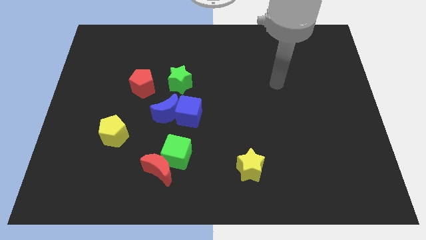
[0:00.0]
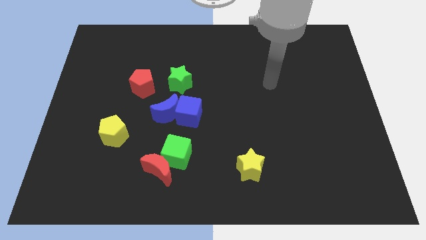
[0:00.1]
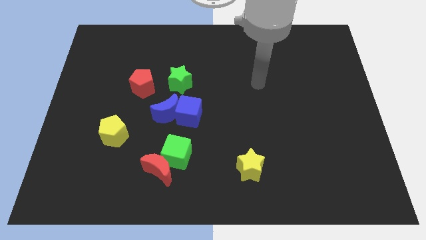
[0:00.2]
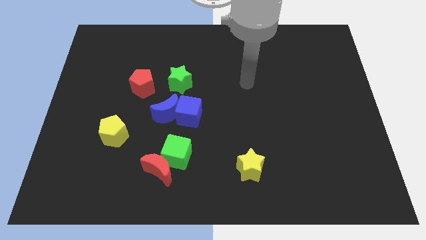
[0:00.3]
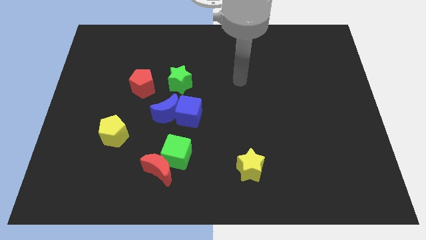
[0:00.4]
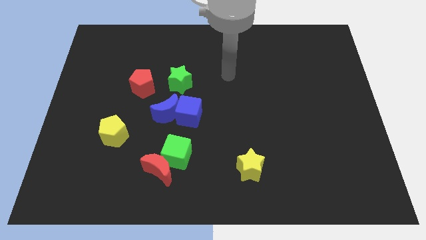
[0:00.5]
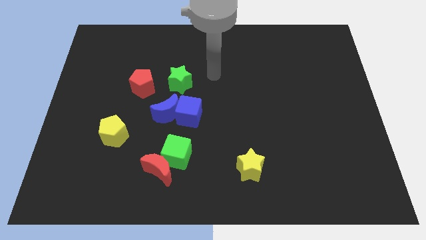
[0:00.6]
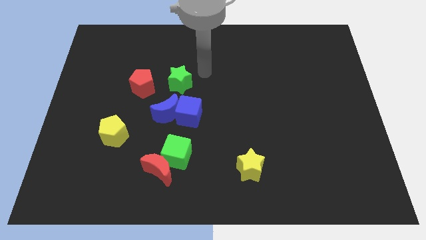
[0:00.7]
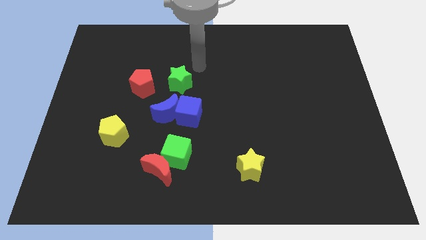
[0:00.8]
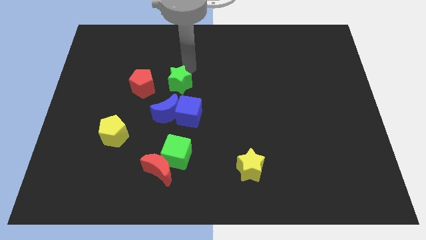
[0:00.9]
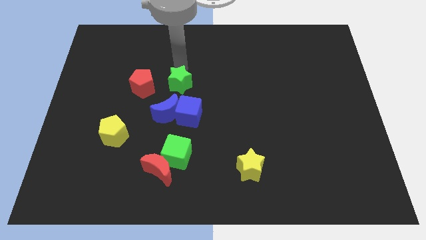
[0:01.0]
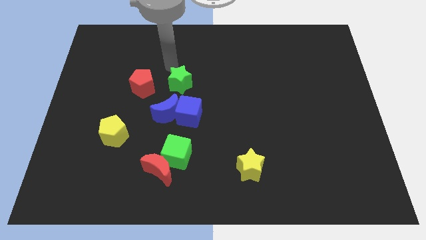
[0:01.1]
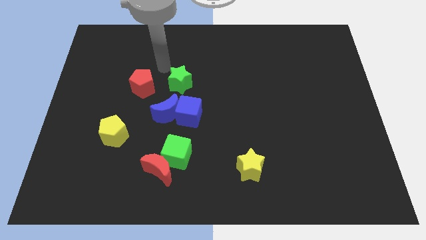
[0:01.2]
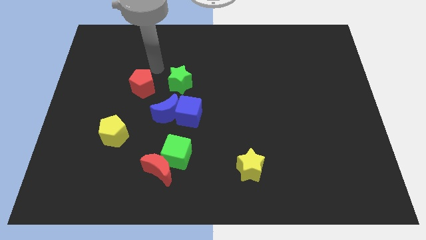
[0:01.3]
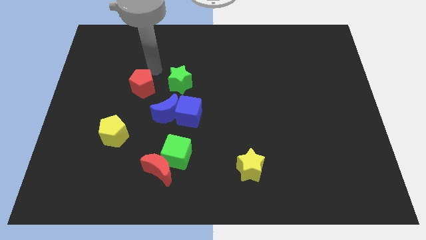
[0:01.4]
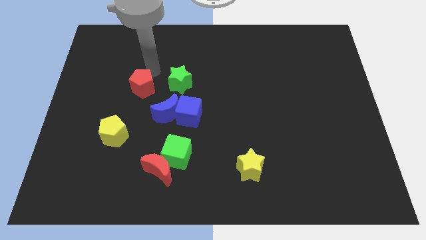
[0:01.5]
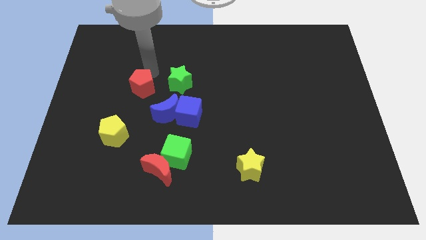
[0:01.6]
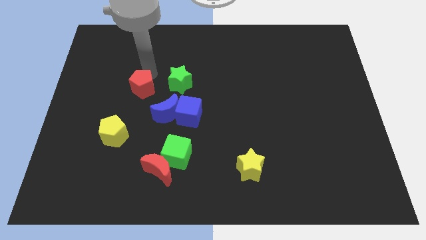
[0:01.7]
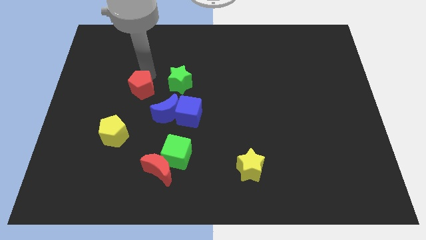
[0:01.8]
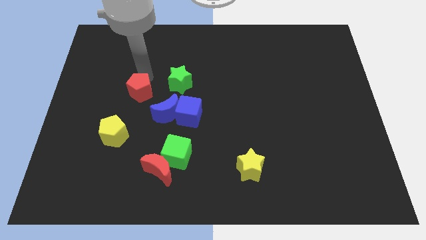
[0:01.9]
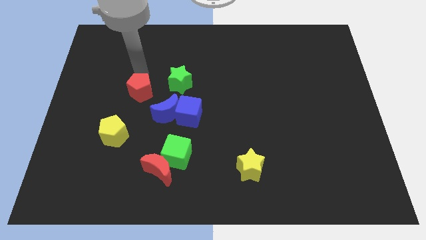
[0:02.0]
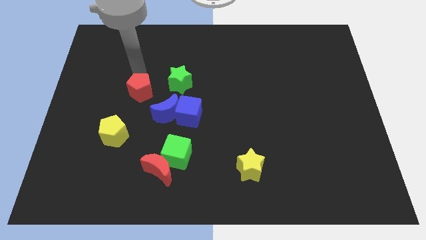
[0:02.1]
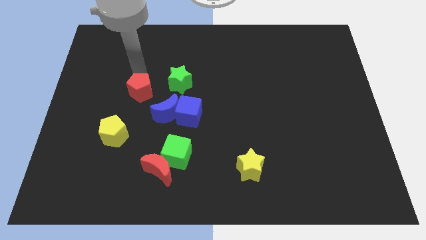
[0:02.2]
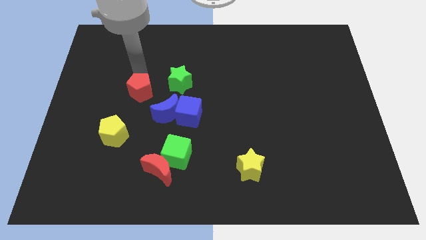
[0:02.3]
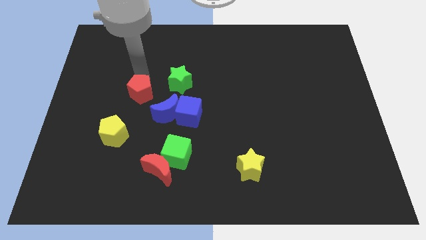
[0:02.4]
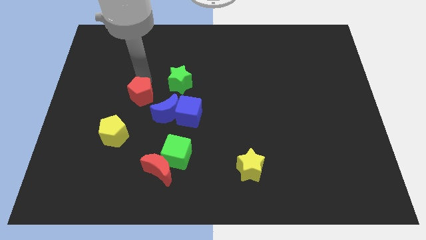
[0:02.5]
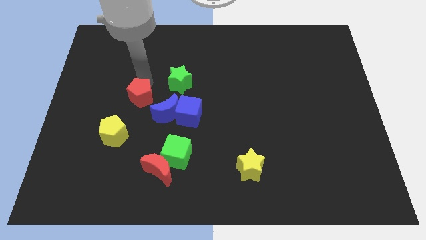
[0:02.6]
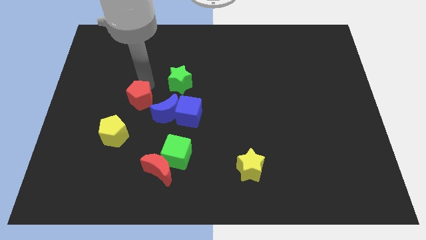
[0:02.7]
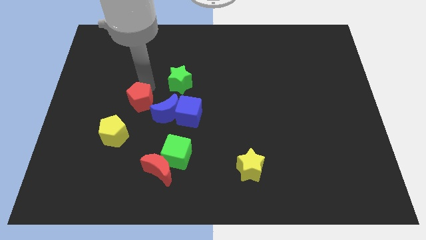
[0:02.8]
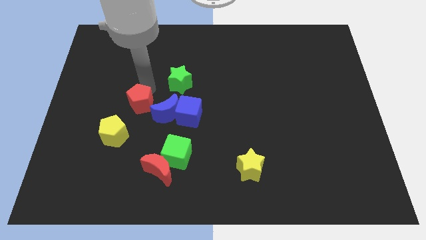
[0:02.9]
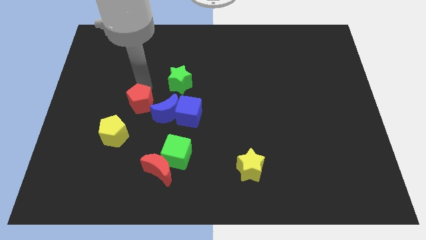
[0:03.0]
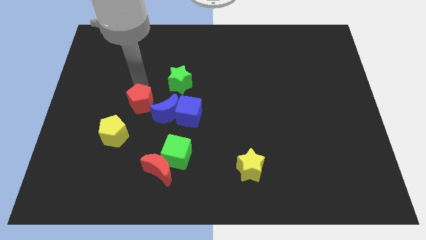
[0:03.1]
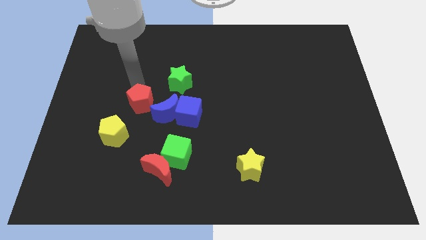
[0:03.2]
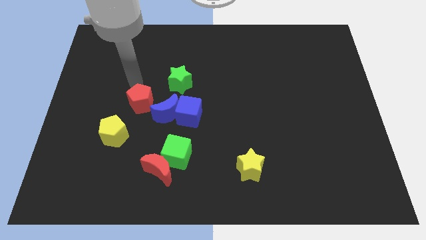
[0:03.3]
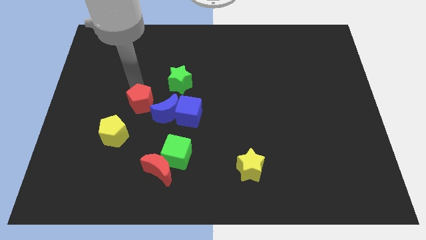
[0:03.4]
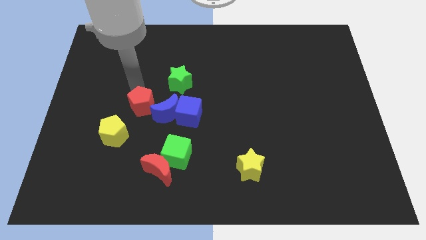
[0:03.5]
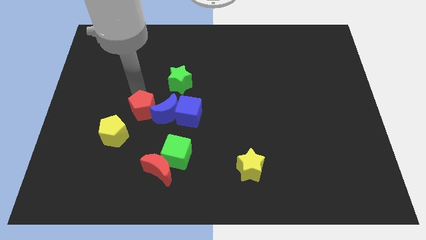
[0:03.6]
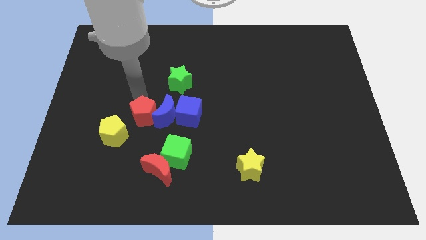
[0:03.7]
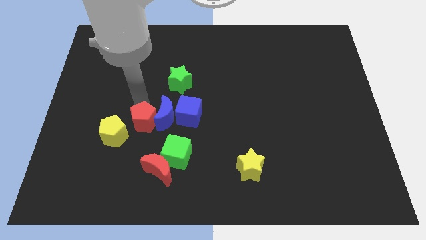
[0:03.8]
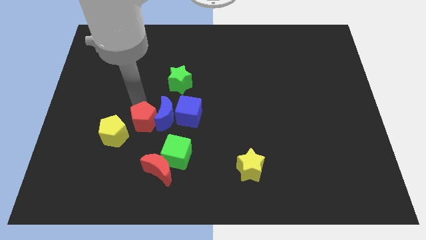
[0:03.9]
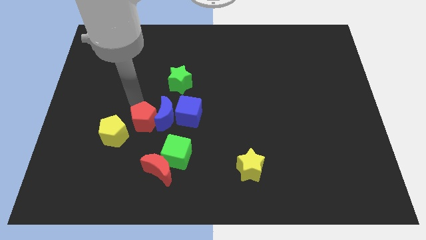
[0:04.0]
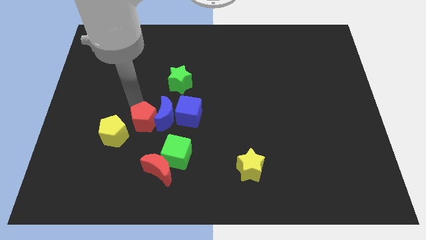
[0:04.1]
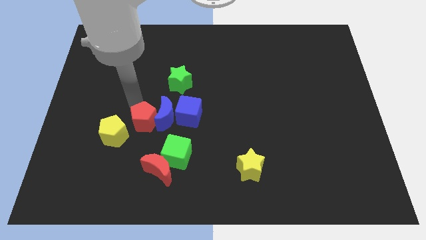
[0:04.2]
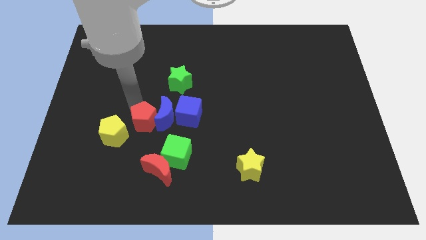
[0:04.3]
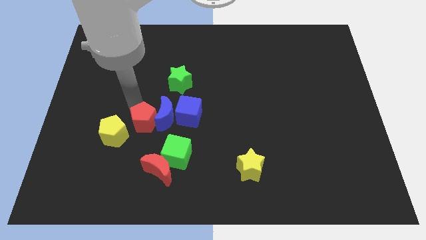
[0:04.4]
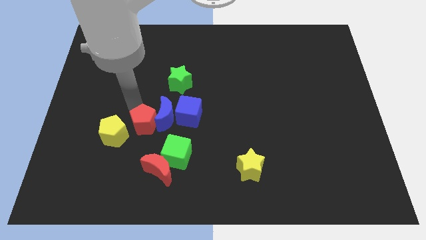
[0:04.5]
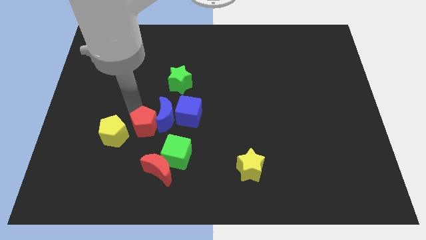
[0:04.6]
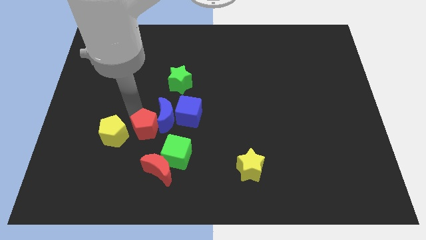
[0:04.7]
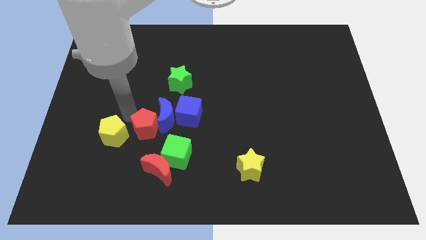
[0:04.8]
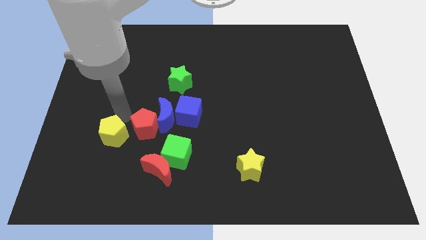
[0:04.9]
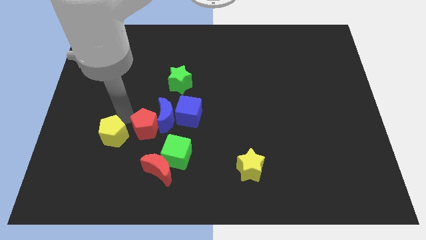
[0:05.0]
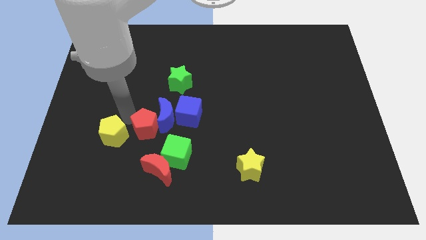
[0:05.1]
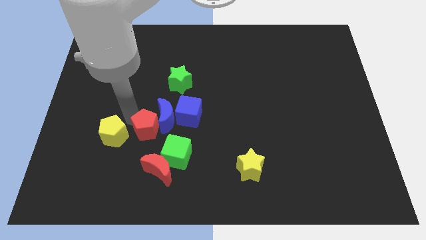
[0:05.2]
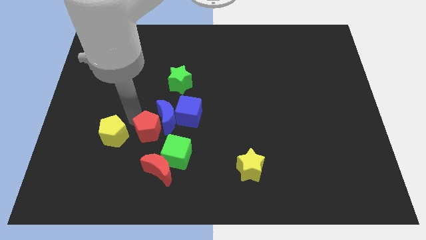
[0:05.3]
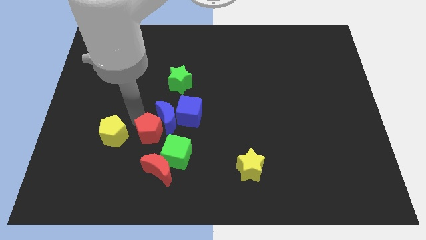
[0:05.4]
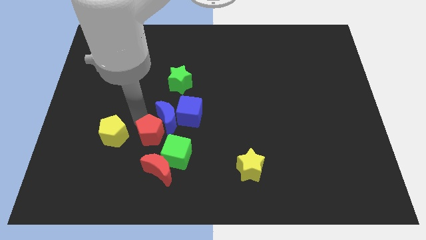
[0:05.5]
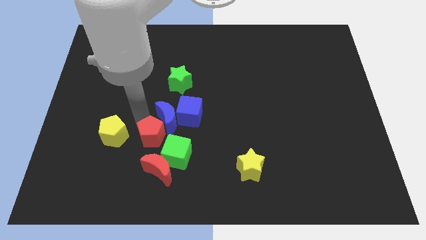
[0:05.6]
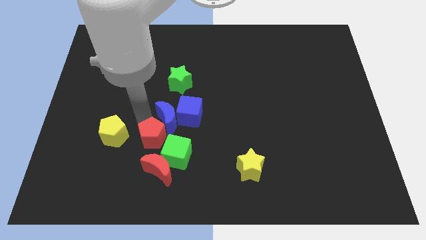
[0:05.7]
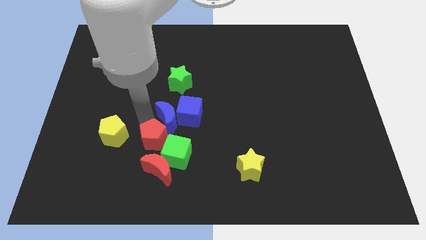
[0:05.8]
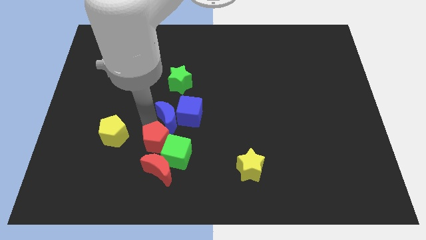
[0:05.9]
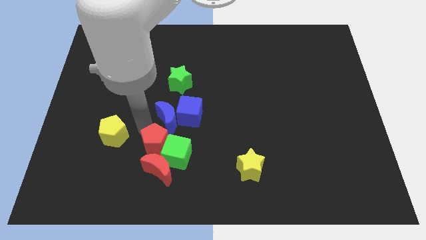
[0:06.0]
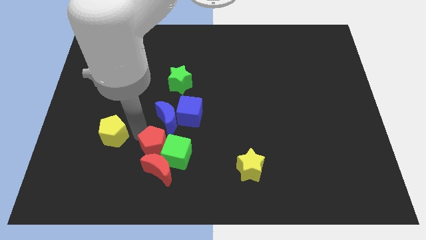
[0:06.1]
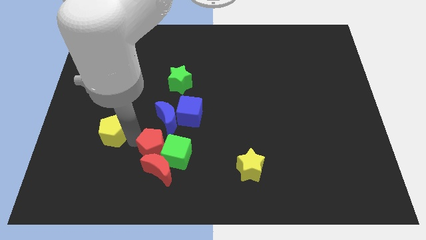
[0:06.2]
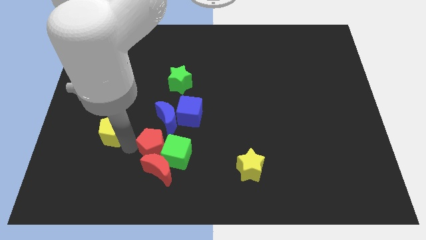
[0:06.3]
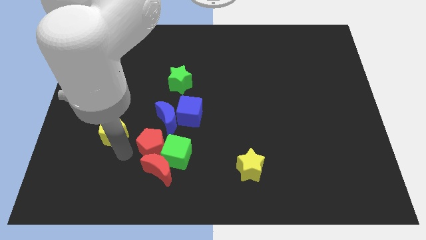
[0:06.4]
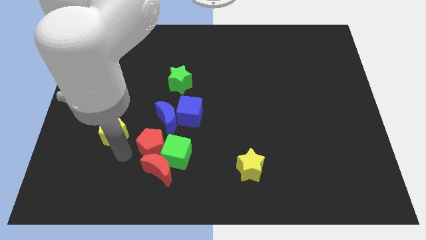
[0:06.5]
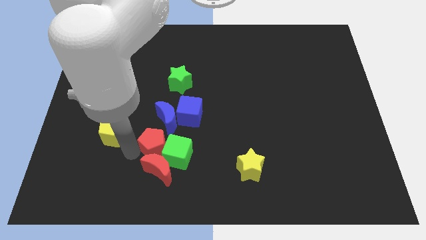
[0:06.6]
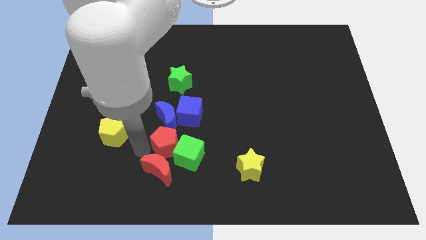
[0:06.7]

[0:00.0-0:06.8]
push the red pentagon to the bottom right side of the blue moon
